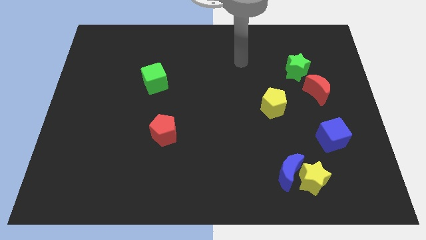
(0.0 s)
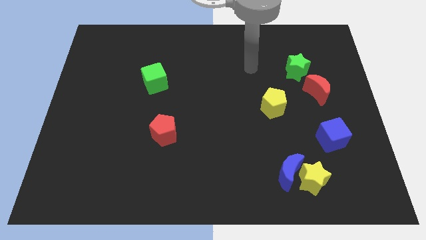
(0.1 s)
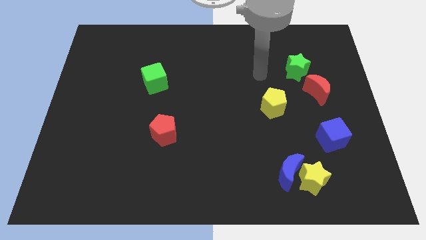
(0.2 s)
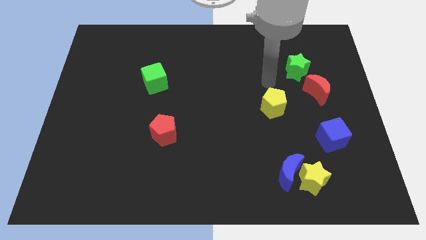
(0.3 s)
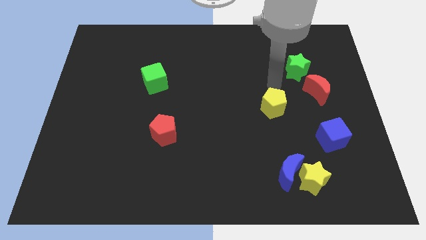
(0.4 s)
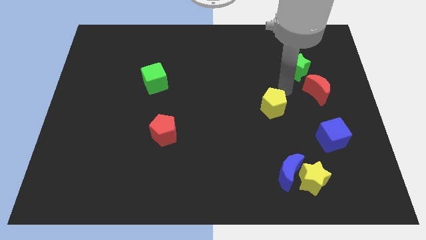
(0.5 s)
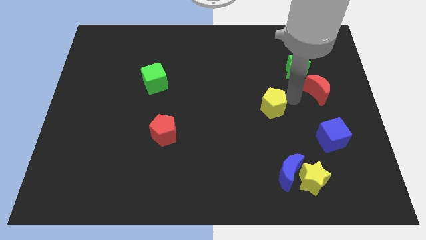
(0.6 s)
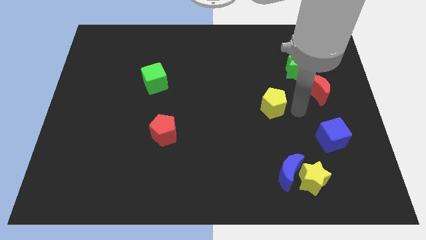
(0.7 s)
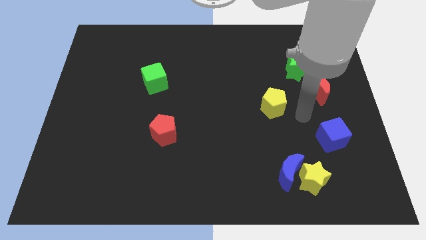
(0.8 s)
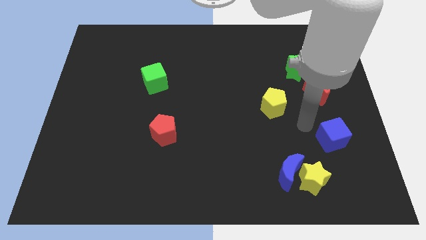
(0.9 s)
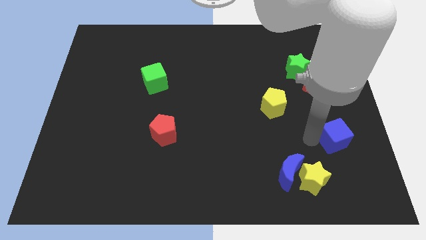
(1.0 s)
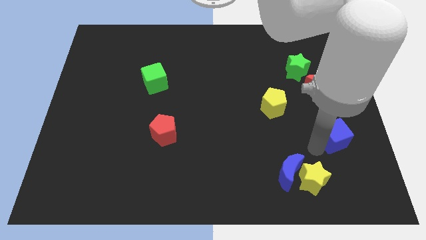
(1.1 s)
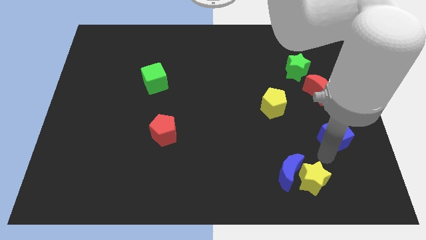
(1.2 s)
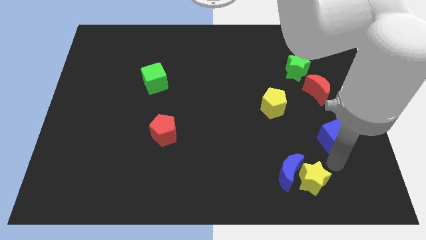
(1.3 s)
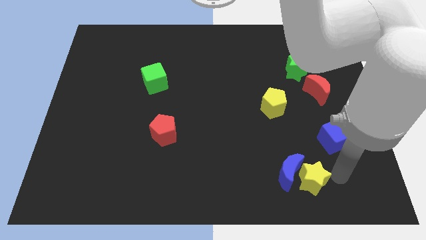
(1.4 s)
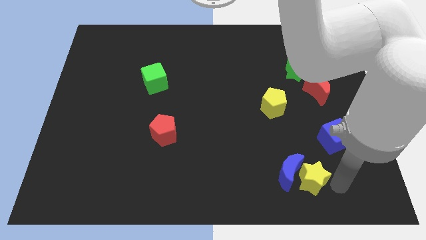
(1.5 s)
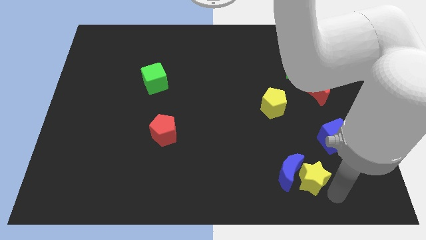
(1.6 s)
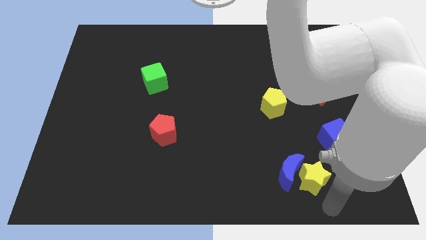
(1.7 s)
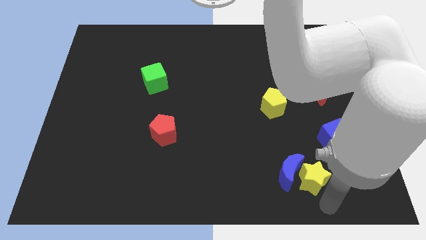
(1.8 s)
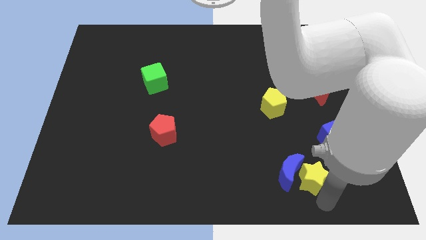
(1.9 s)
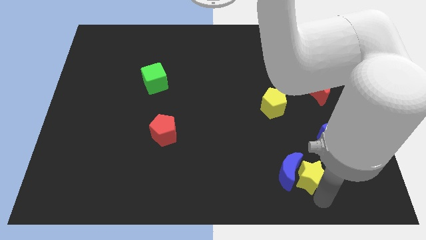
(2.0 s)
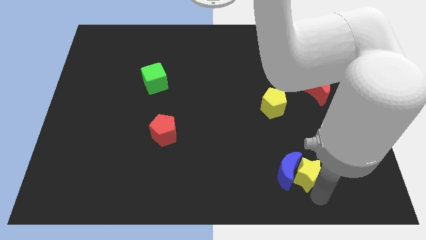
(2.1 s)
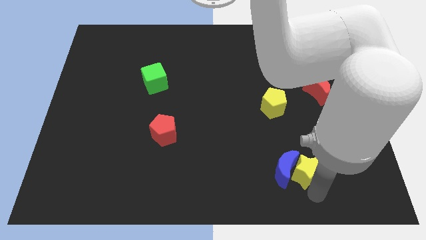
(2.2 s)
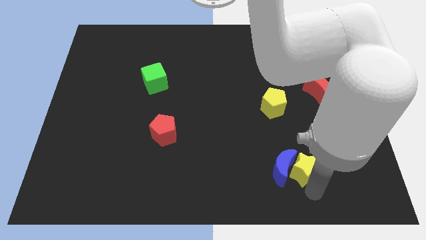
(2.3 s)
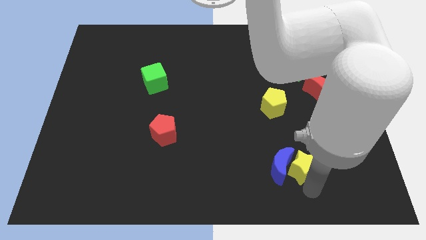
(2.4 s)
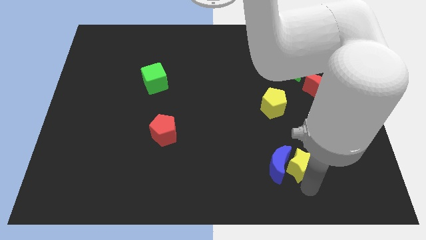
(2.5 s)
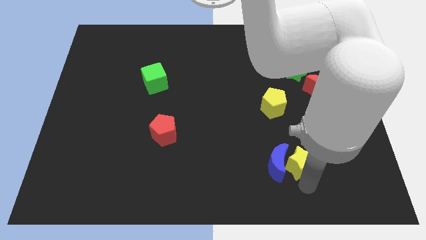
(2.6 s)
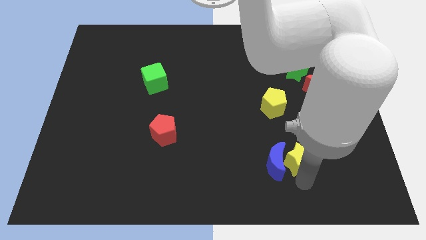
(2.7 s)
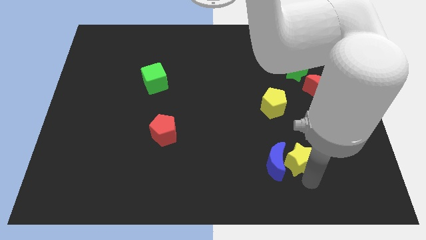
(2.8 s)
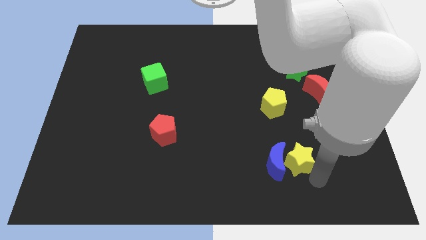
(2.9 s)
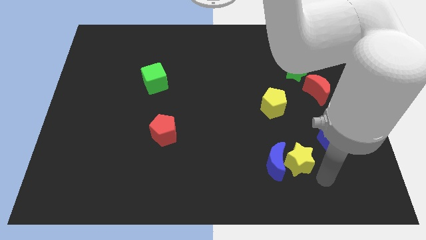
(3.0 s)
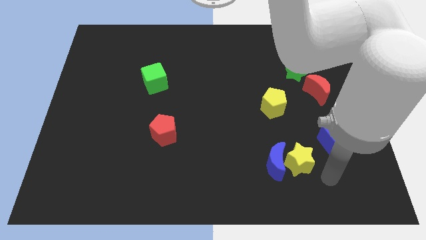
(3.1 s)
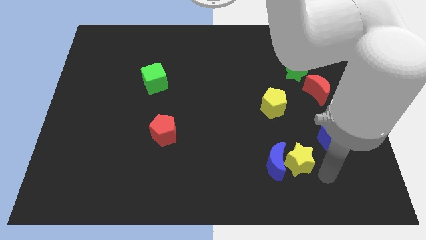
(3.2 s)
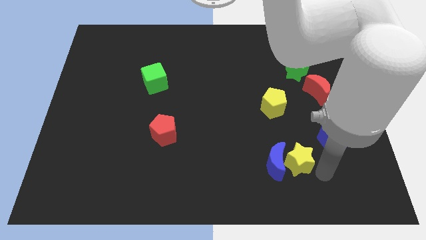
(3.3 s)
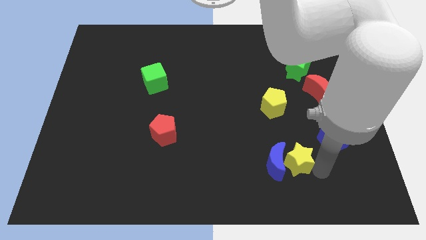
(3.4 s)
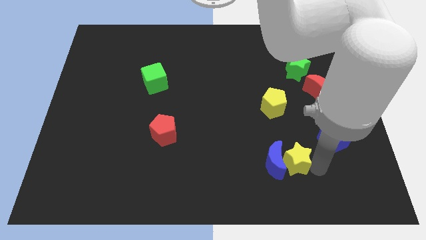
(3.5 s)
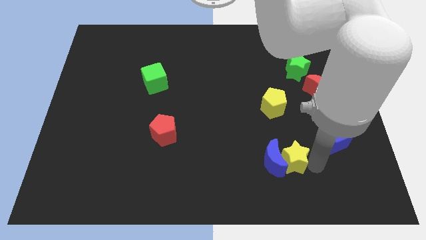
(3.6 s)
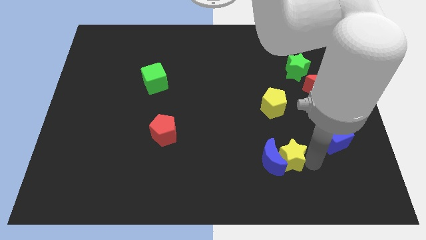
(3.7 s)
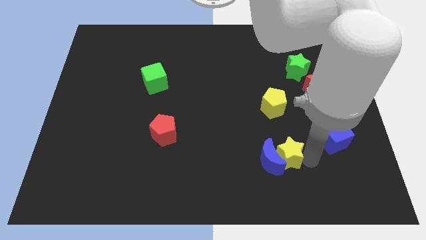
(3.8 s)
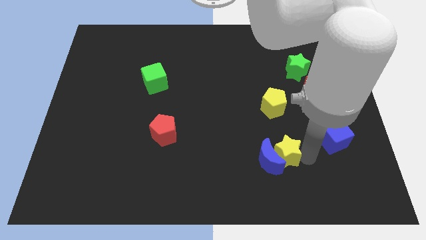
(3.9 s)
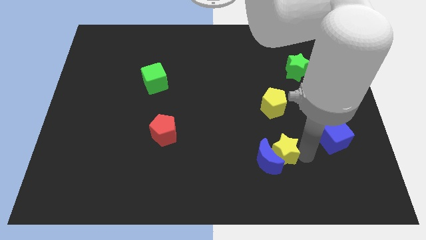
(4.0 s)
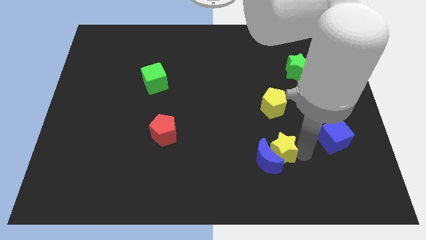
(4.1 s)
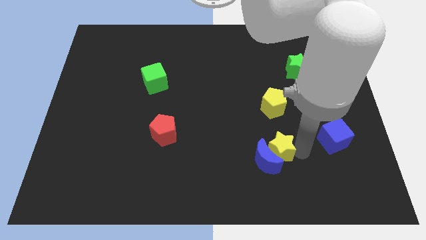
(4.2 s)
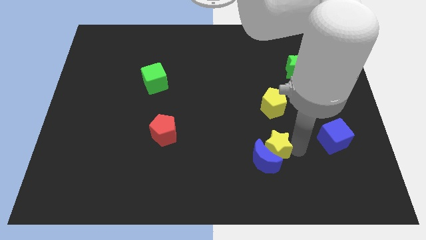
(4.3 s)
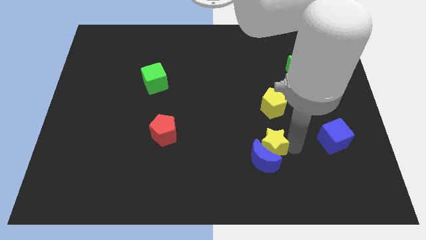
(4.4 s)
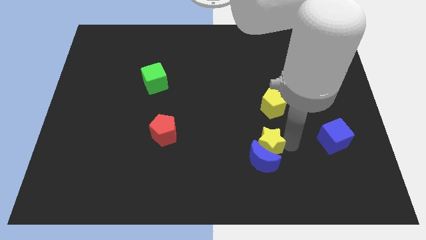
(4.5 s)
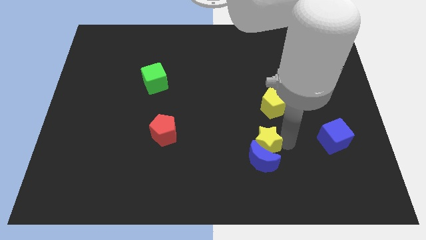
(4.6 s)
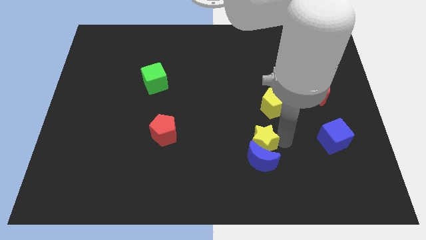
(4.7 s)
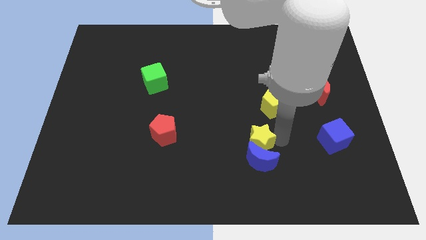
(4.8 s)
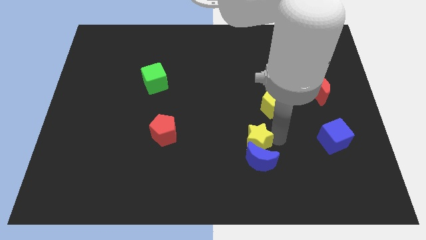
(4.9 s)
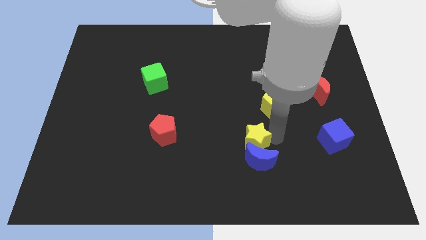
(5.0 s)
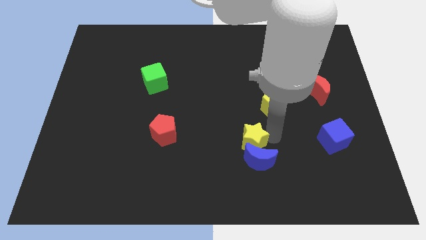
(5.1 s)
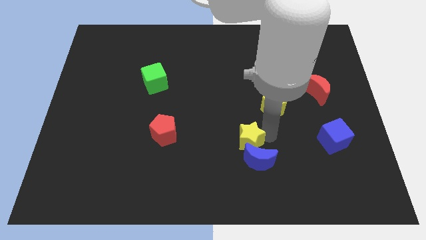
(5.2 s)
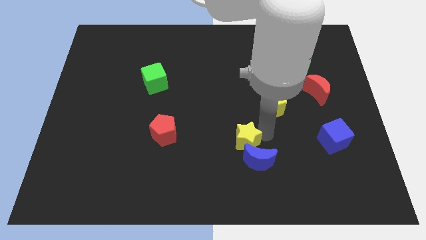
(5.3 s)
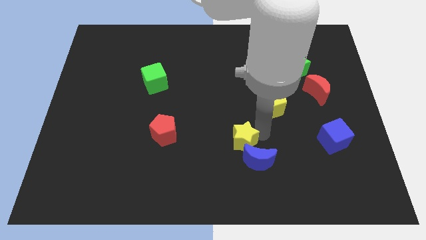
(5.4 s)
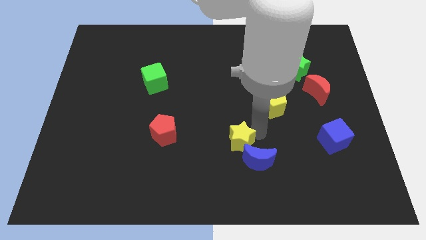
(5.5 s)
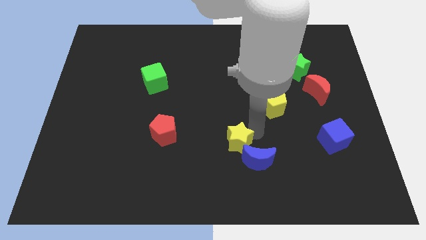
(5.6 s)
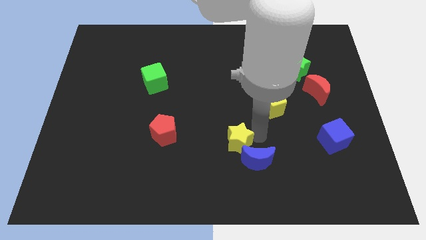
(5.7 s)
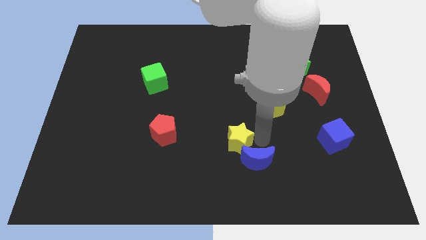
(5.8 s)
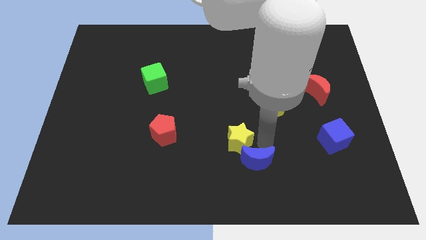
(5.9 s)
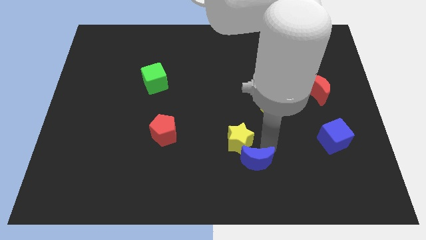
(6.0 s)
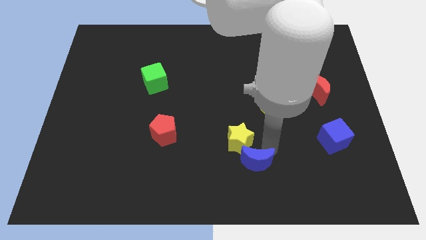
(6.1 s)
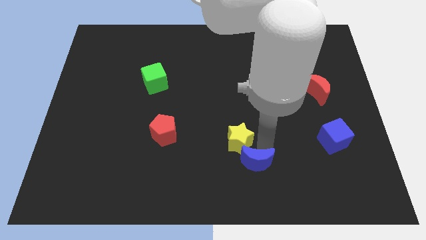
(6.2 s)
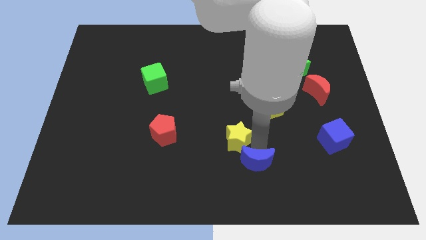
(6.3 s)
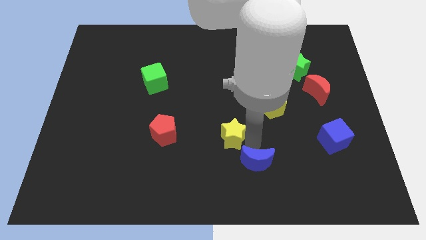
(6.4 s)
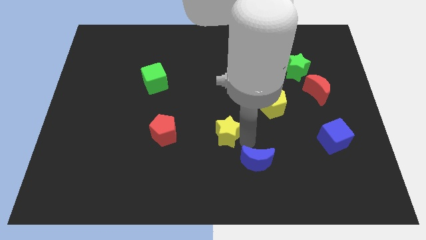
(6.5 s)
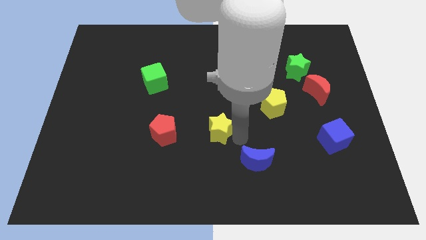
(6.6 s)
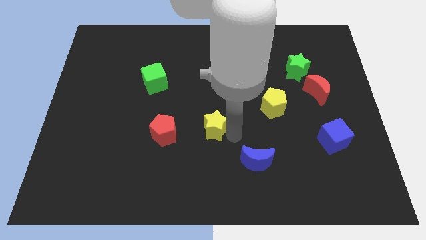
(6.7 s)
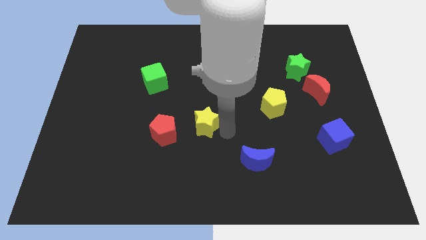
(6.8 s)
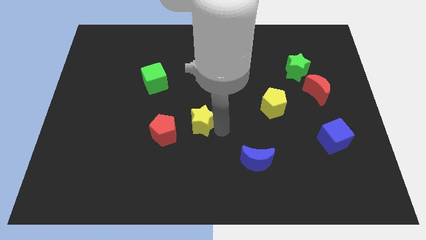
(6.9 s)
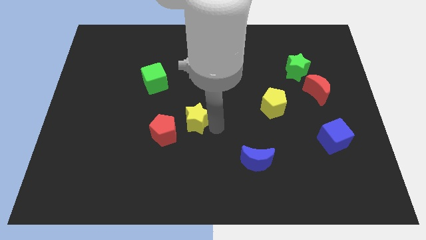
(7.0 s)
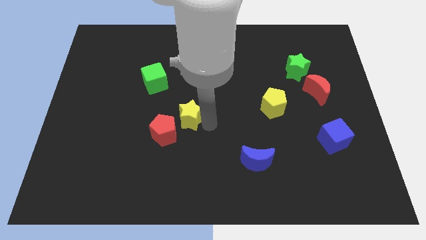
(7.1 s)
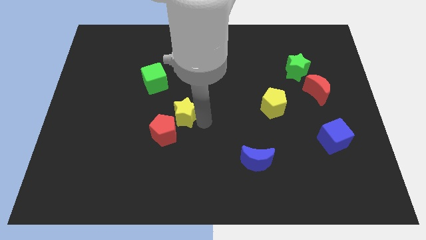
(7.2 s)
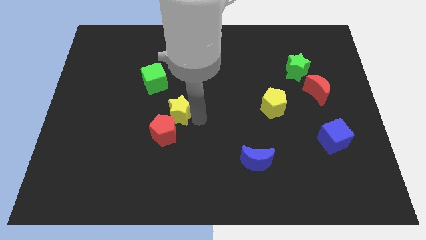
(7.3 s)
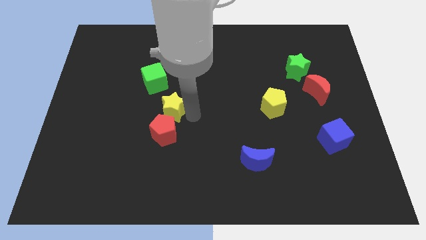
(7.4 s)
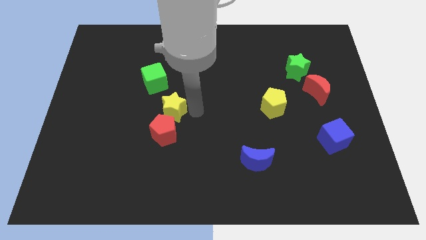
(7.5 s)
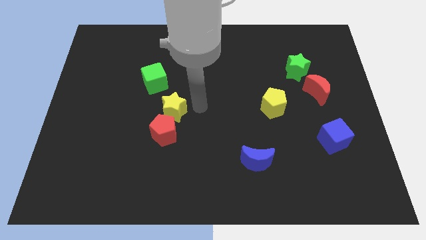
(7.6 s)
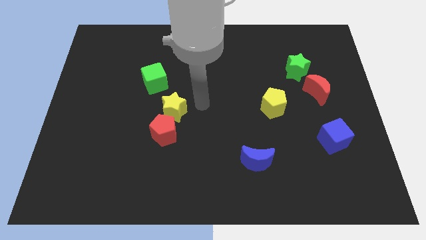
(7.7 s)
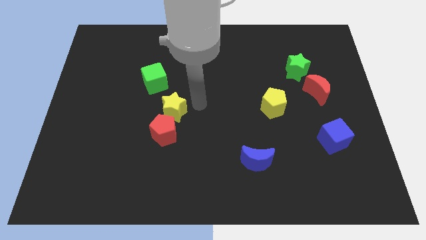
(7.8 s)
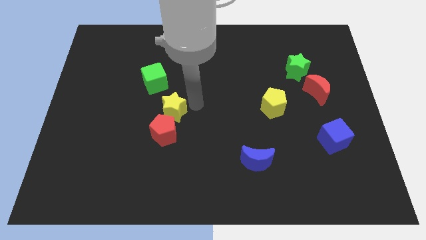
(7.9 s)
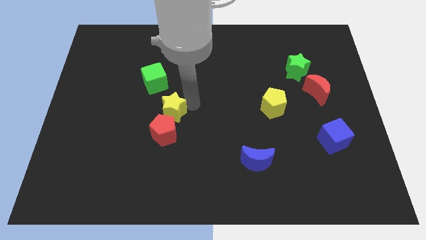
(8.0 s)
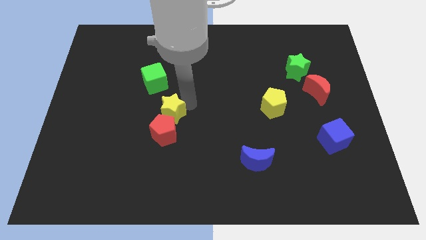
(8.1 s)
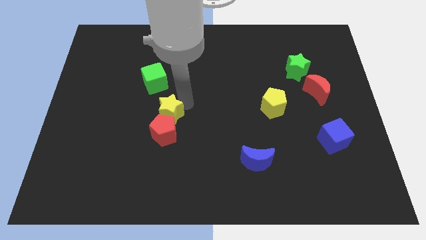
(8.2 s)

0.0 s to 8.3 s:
put the yellow star to the bottom of the green cube
